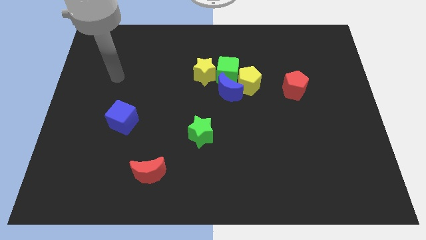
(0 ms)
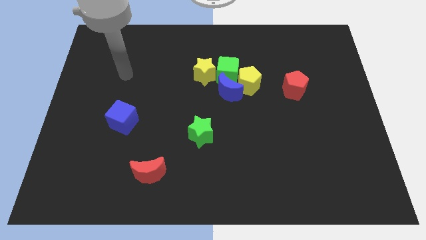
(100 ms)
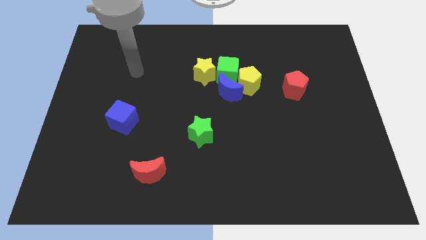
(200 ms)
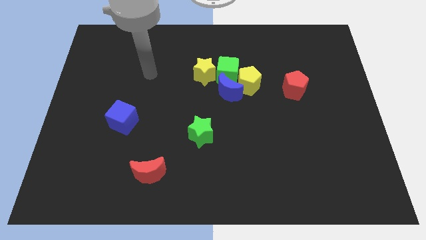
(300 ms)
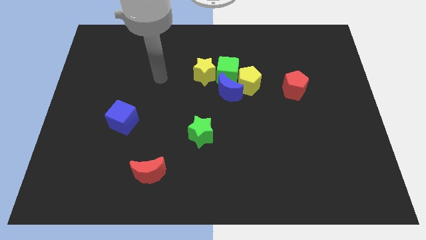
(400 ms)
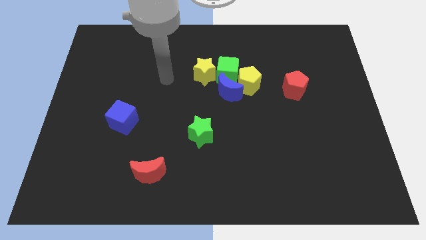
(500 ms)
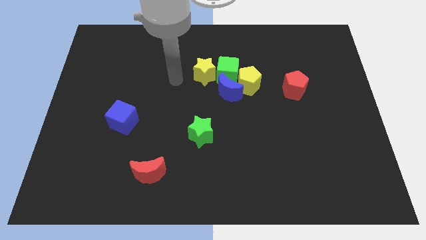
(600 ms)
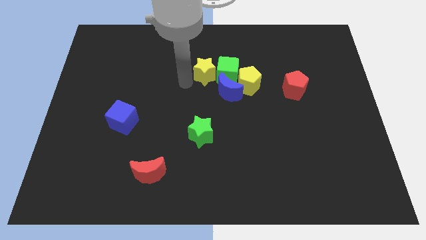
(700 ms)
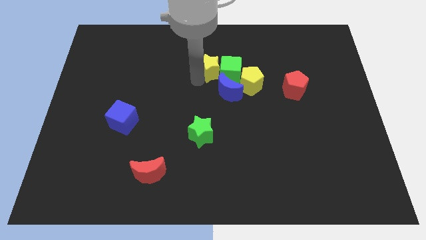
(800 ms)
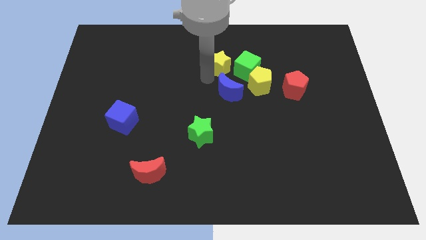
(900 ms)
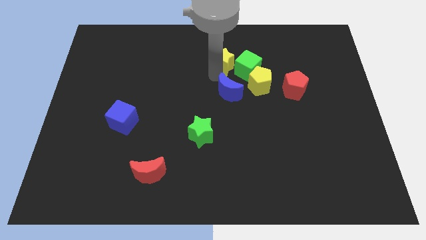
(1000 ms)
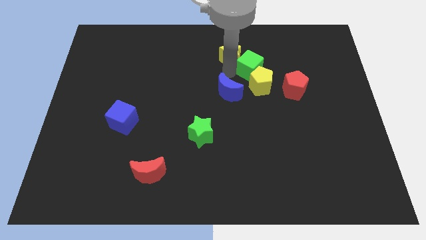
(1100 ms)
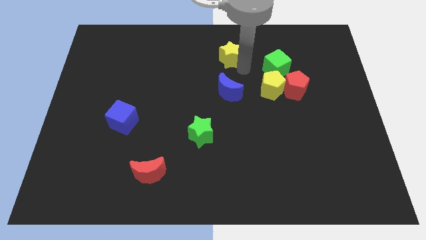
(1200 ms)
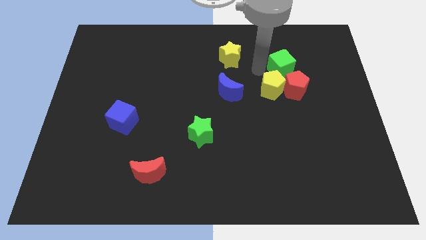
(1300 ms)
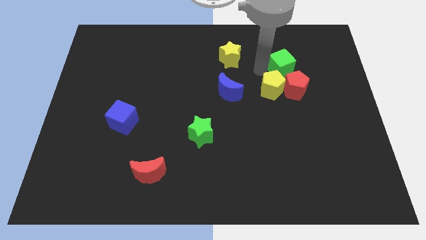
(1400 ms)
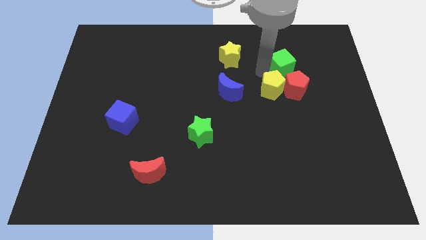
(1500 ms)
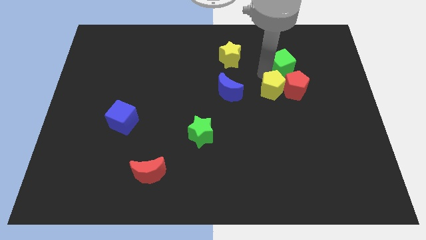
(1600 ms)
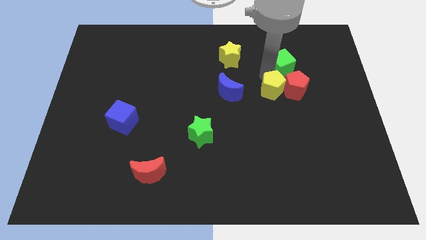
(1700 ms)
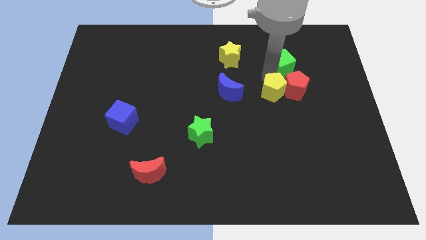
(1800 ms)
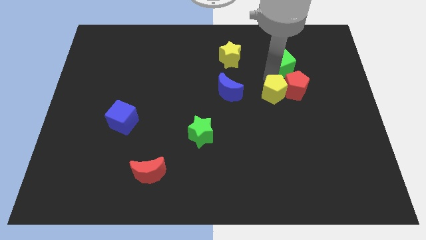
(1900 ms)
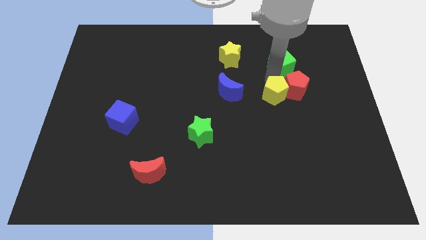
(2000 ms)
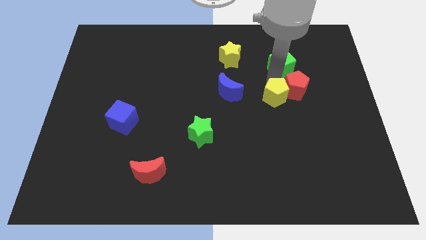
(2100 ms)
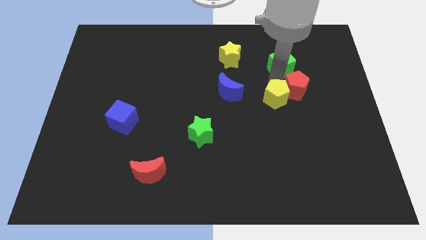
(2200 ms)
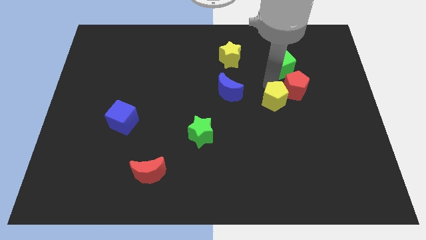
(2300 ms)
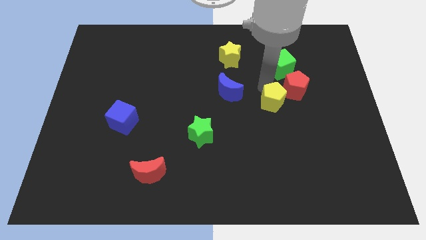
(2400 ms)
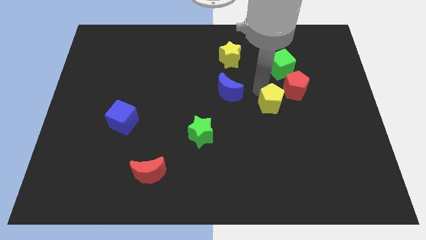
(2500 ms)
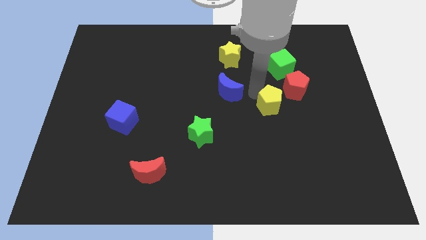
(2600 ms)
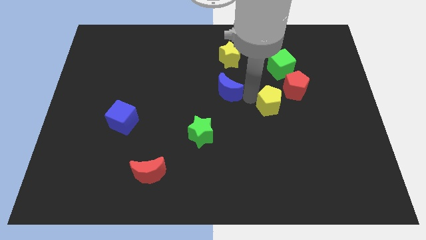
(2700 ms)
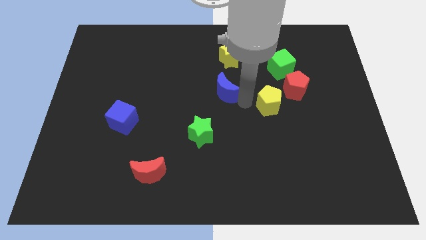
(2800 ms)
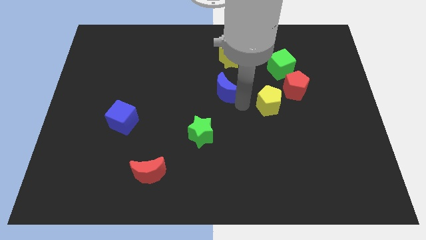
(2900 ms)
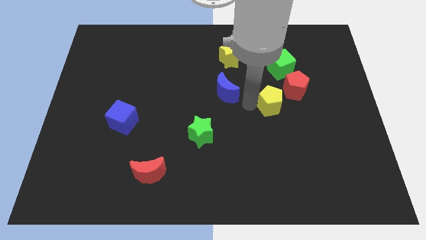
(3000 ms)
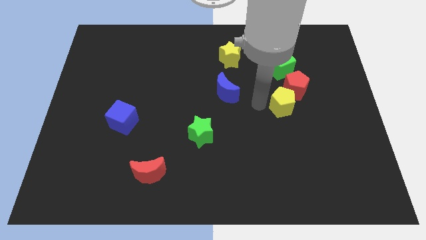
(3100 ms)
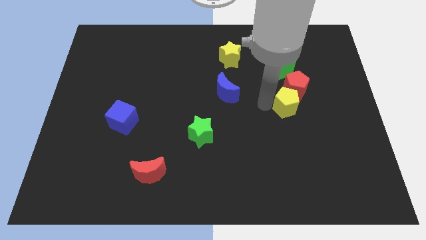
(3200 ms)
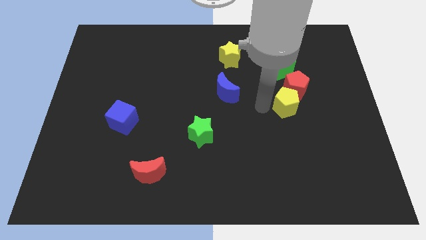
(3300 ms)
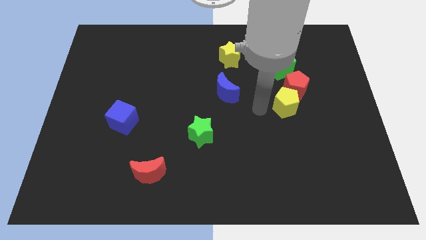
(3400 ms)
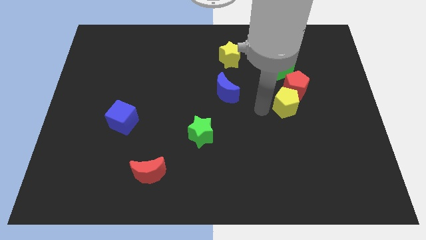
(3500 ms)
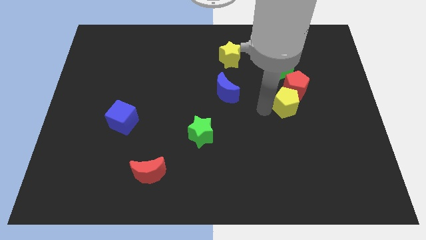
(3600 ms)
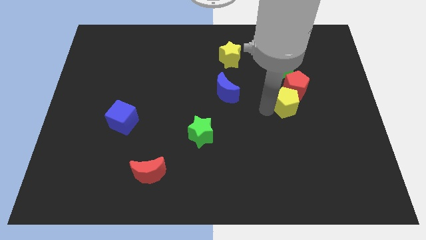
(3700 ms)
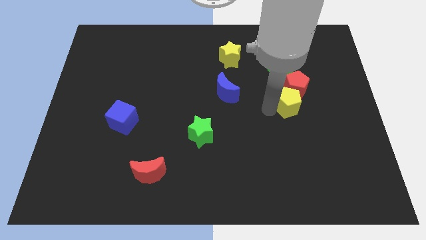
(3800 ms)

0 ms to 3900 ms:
slightly push the yellow pentagon to the right

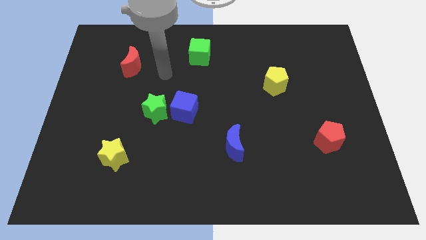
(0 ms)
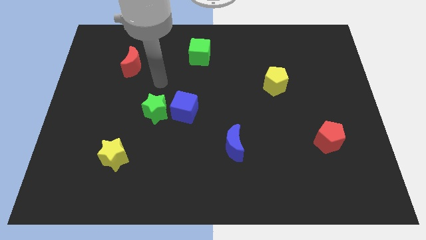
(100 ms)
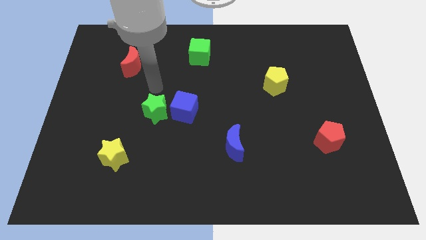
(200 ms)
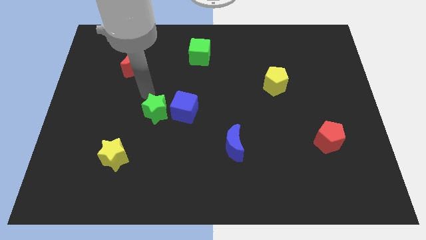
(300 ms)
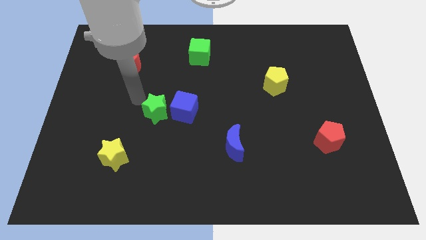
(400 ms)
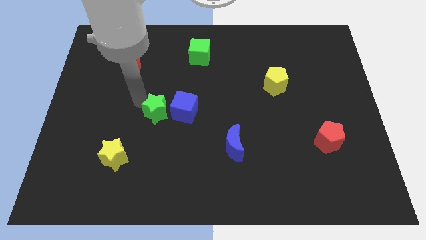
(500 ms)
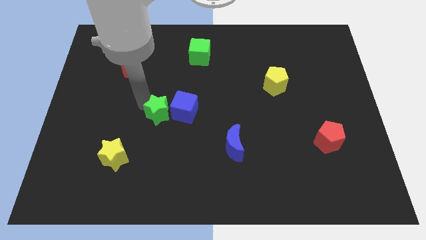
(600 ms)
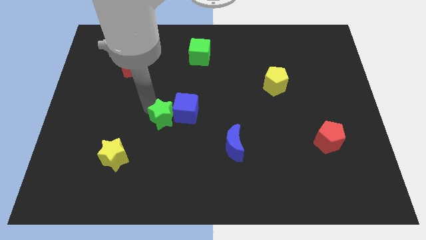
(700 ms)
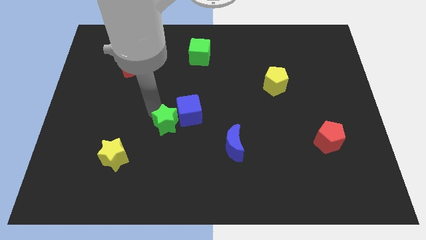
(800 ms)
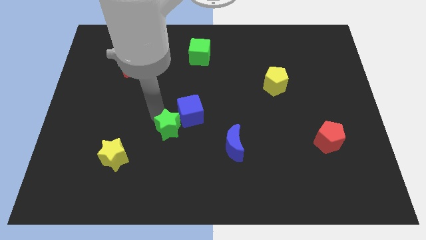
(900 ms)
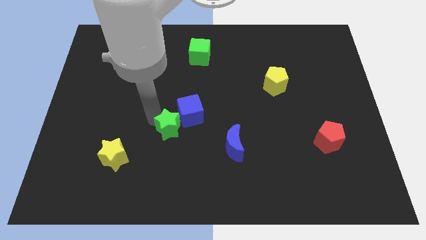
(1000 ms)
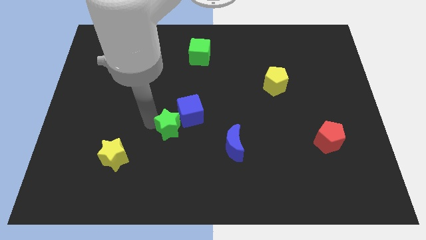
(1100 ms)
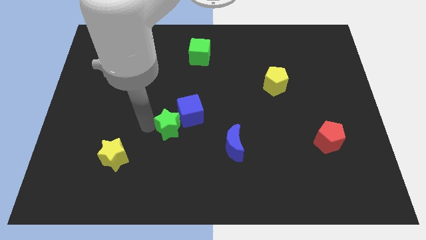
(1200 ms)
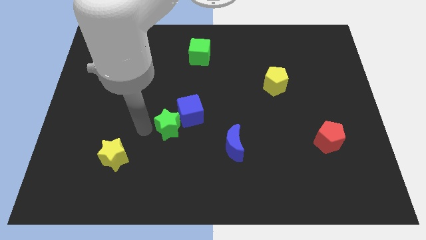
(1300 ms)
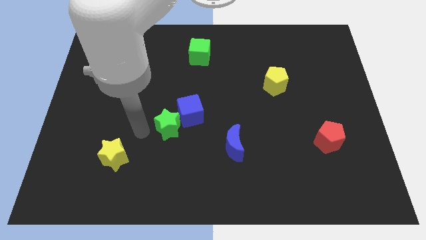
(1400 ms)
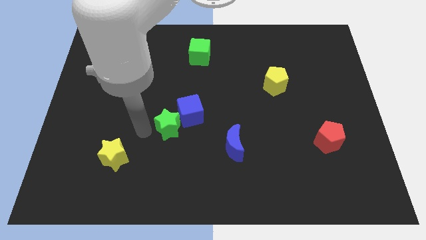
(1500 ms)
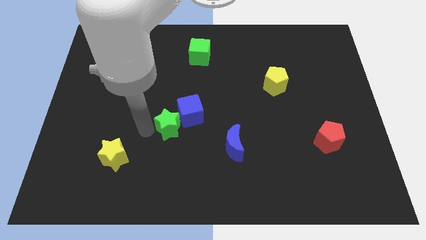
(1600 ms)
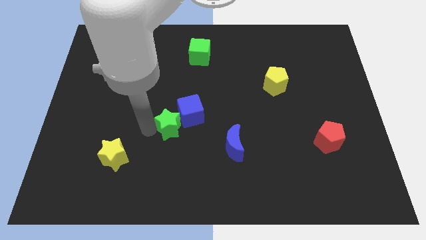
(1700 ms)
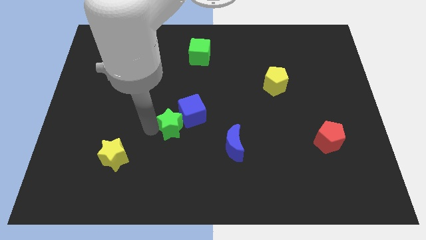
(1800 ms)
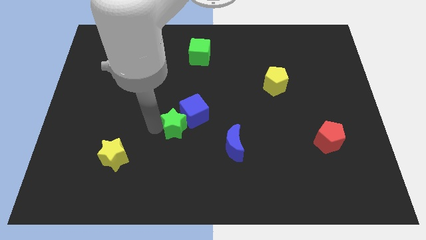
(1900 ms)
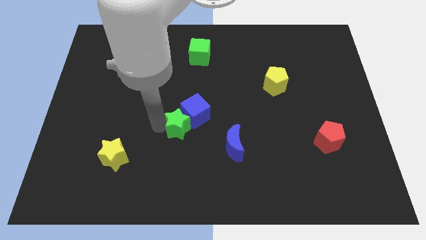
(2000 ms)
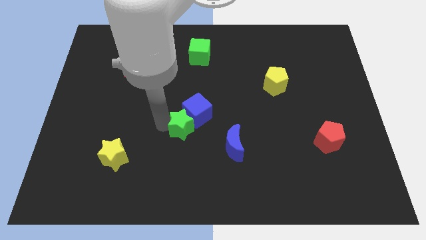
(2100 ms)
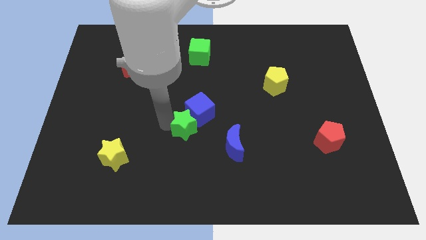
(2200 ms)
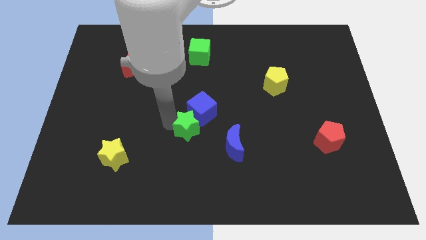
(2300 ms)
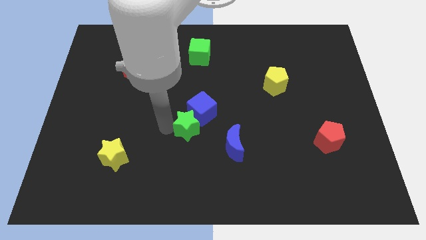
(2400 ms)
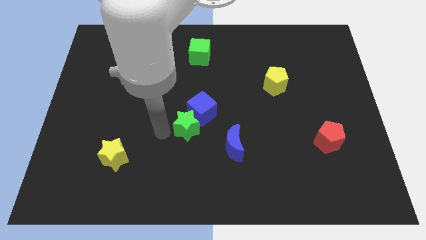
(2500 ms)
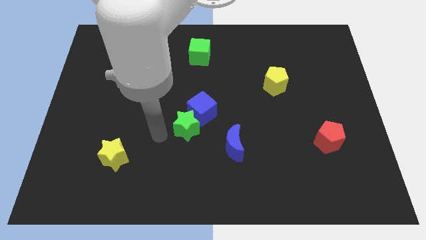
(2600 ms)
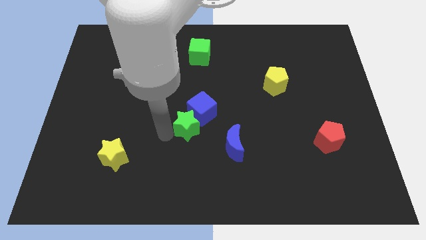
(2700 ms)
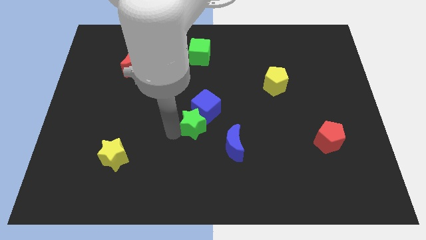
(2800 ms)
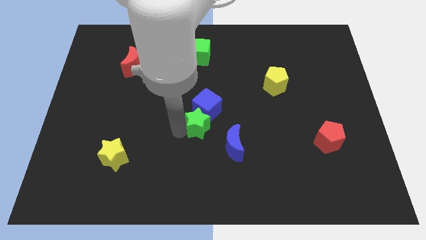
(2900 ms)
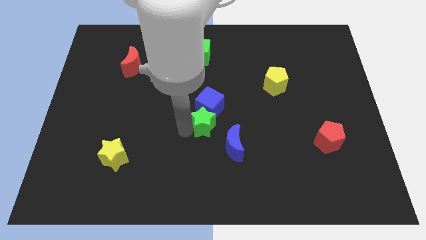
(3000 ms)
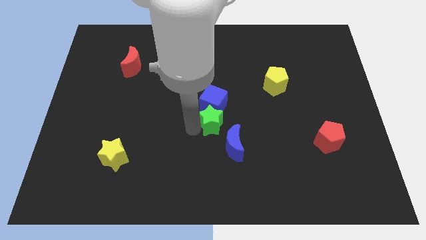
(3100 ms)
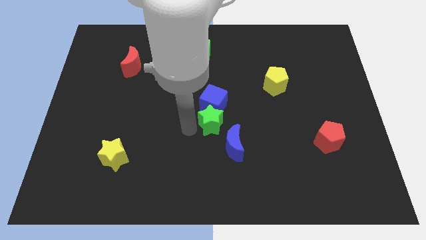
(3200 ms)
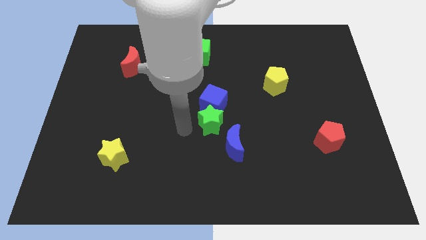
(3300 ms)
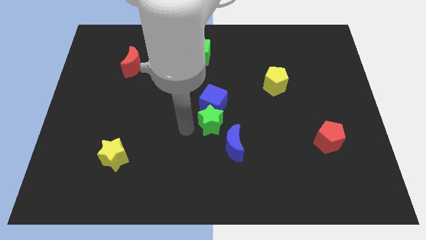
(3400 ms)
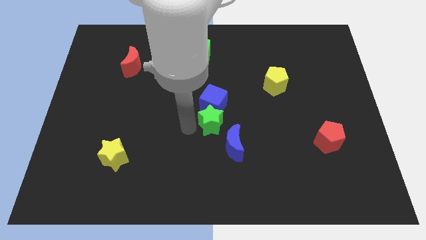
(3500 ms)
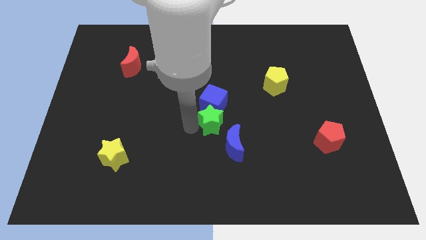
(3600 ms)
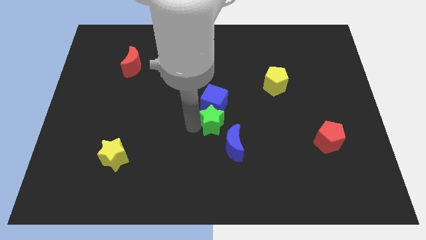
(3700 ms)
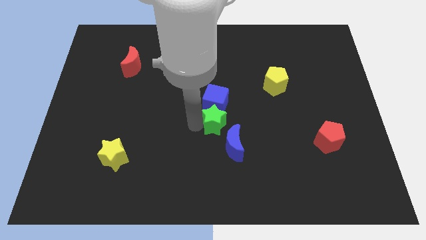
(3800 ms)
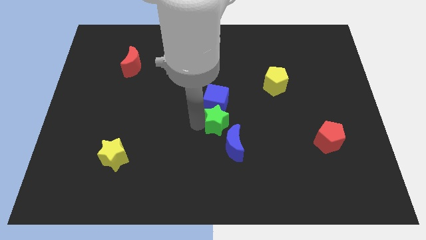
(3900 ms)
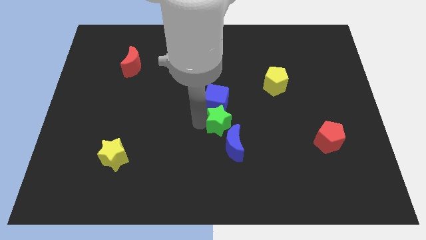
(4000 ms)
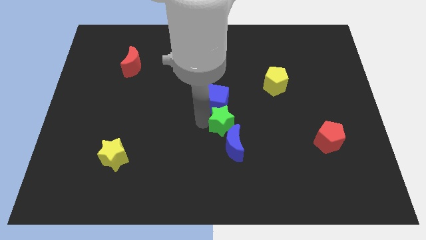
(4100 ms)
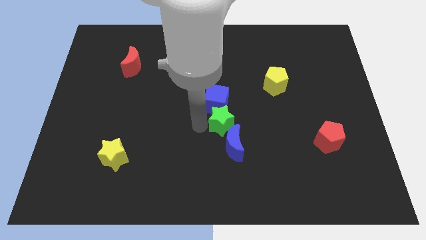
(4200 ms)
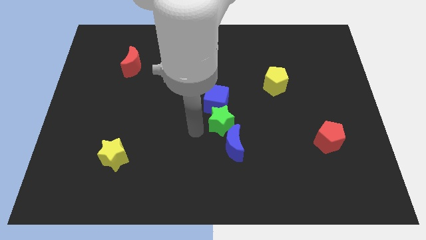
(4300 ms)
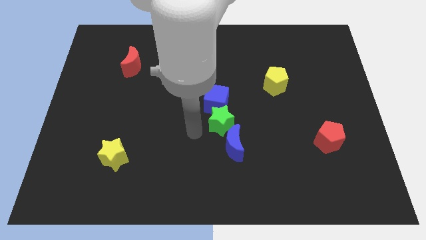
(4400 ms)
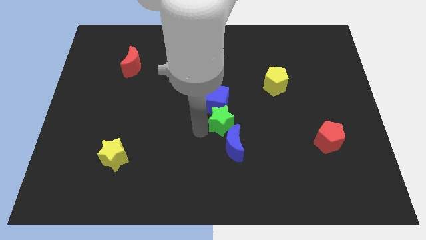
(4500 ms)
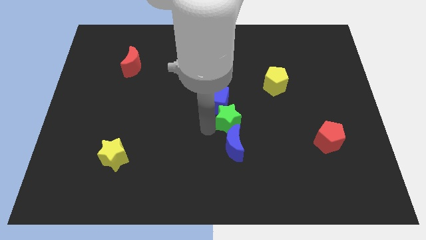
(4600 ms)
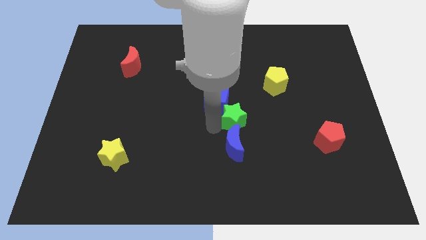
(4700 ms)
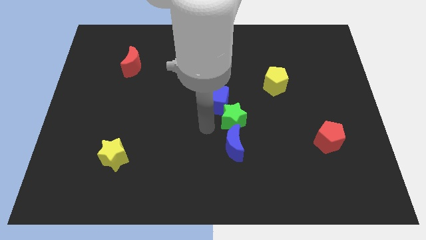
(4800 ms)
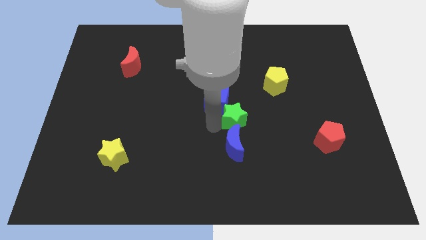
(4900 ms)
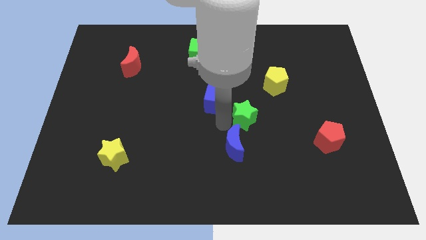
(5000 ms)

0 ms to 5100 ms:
move the green star right
